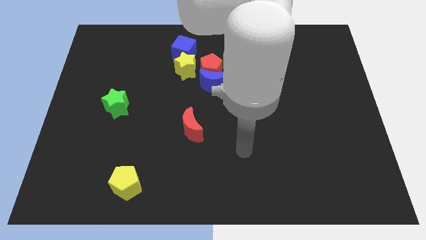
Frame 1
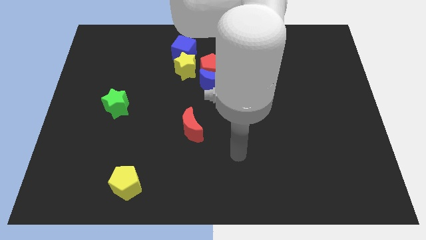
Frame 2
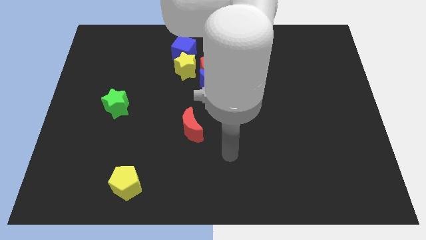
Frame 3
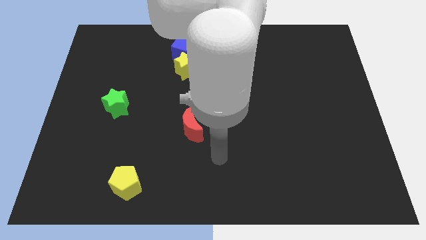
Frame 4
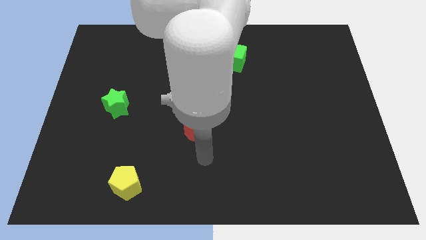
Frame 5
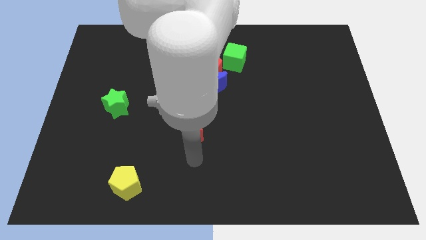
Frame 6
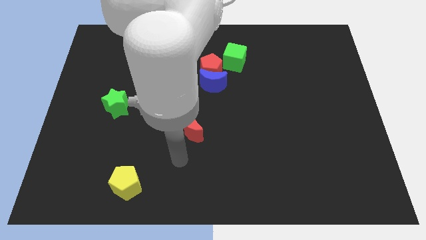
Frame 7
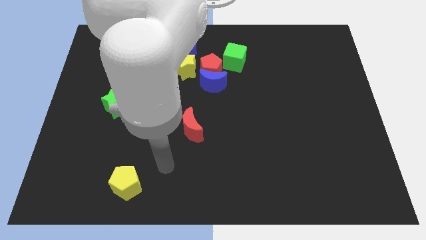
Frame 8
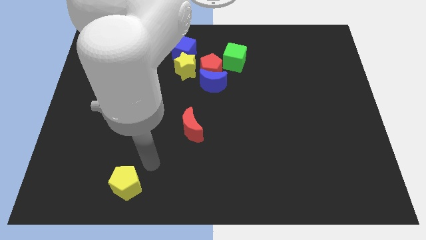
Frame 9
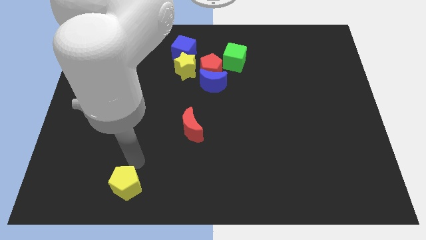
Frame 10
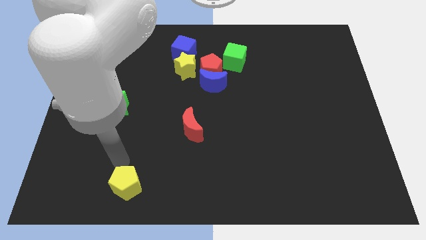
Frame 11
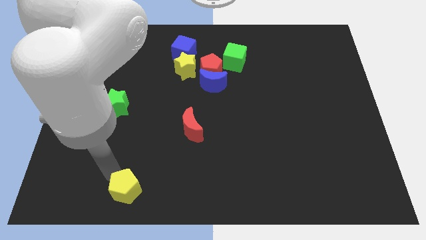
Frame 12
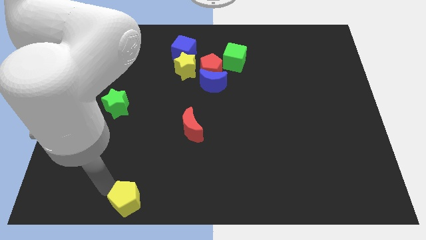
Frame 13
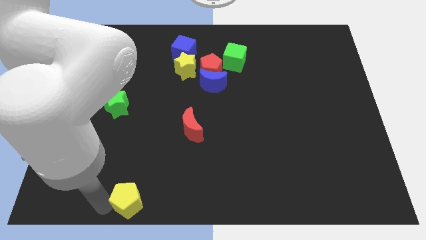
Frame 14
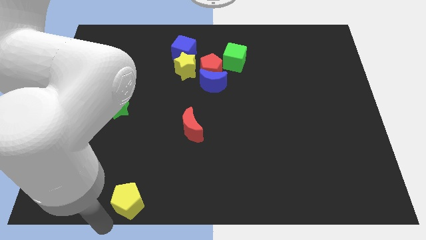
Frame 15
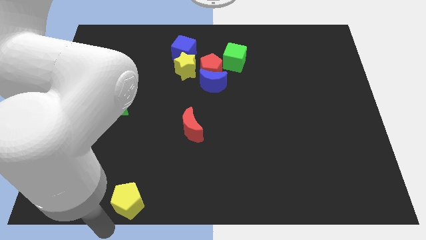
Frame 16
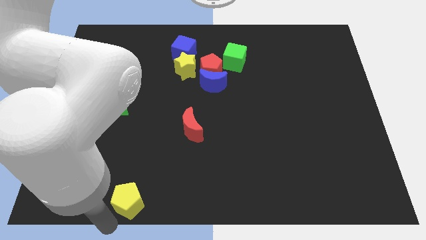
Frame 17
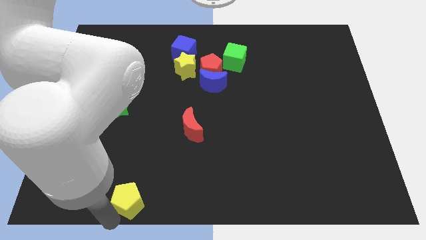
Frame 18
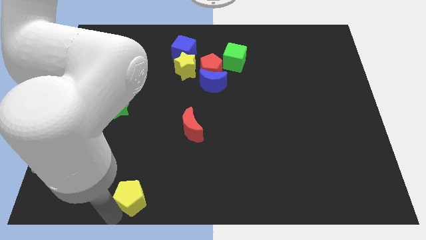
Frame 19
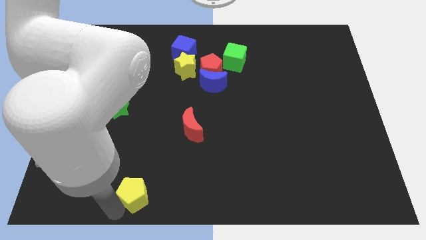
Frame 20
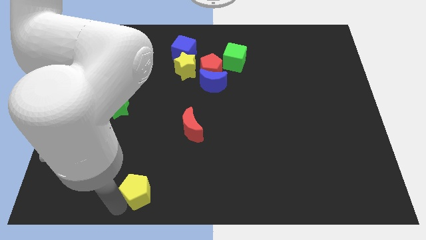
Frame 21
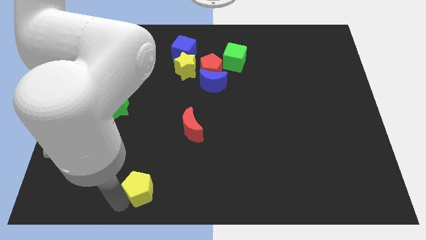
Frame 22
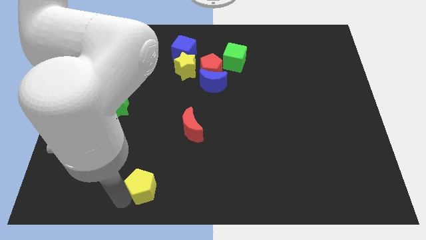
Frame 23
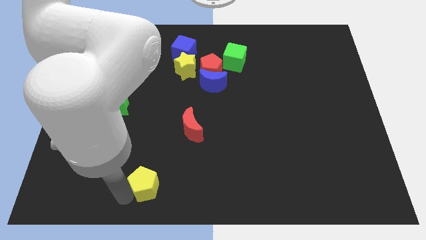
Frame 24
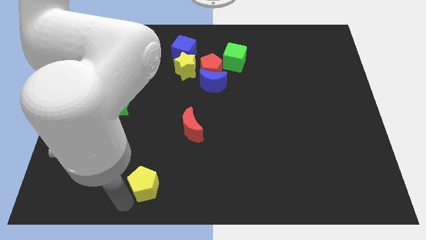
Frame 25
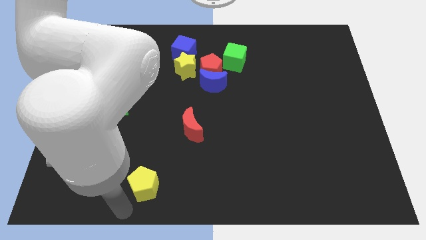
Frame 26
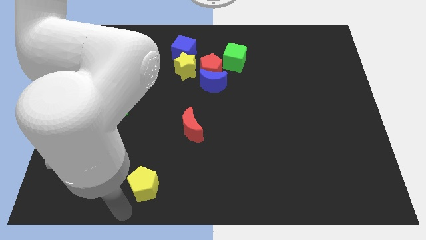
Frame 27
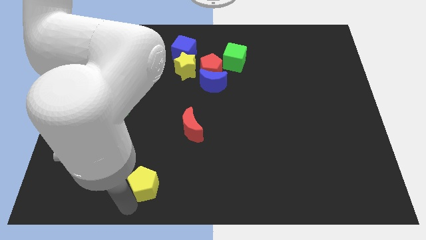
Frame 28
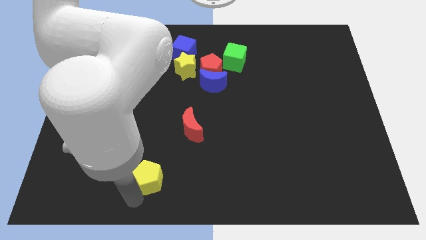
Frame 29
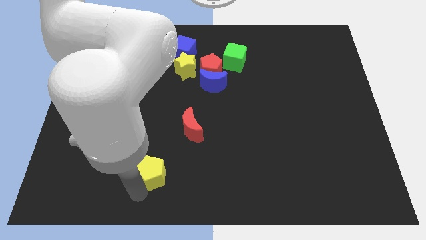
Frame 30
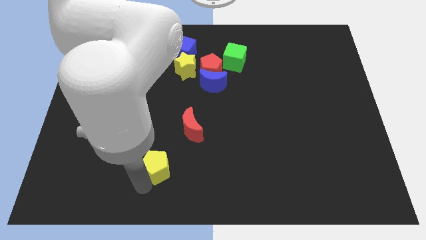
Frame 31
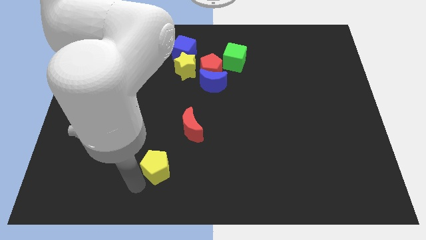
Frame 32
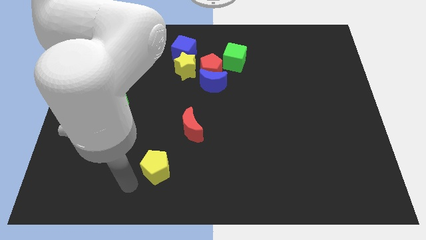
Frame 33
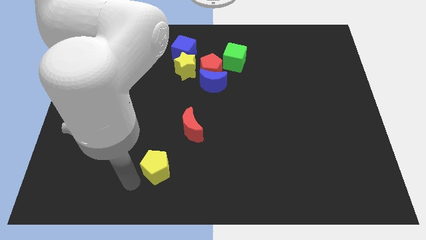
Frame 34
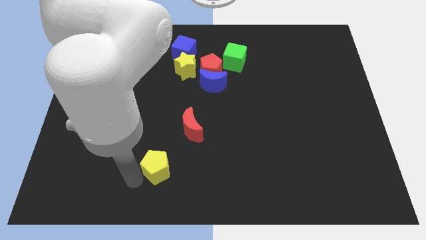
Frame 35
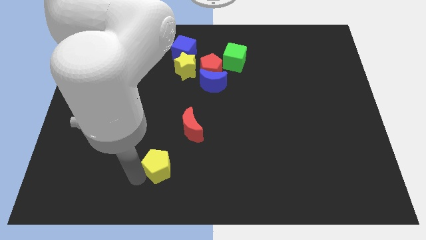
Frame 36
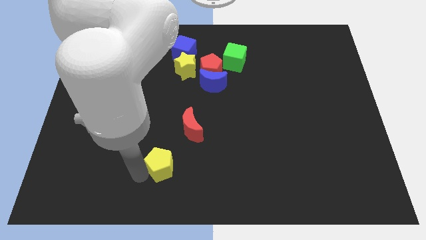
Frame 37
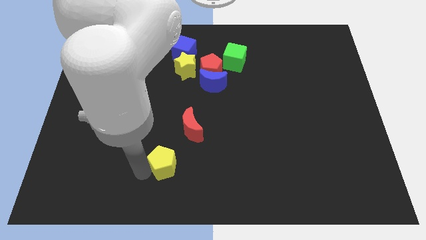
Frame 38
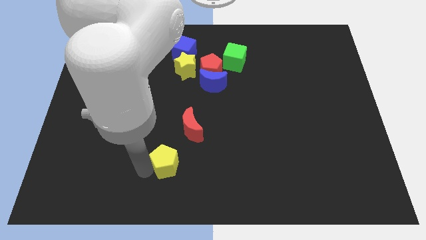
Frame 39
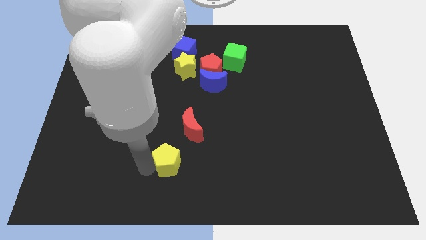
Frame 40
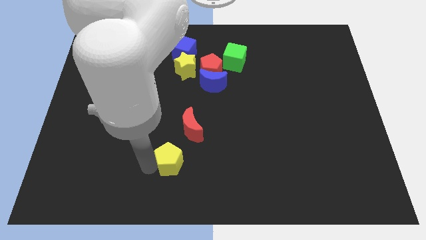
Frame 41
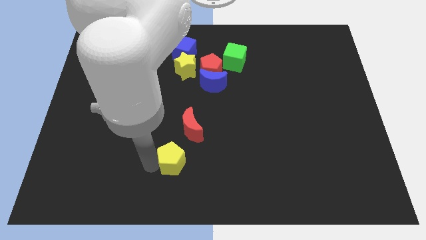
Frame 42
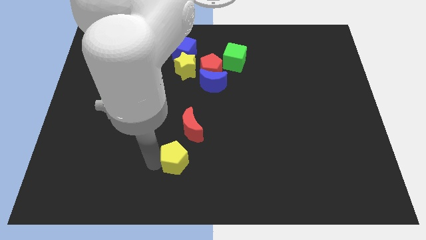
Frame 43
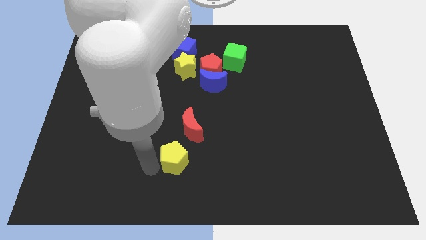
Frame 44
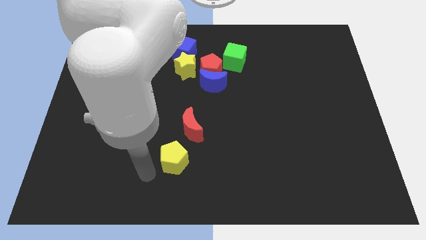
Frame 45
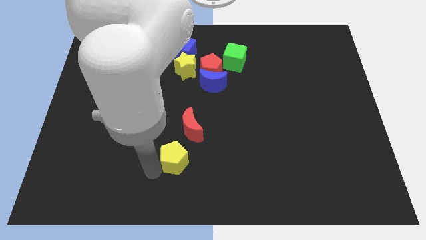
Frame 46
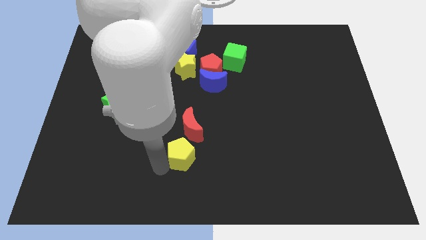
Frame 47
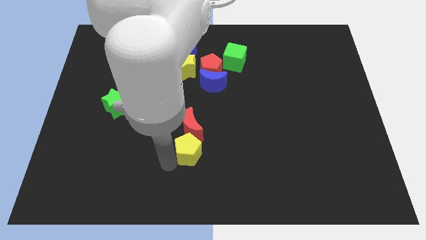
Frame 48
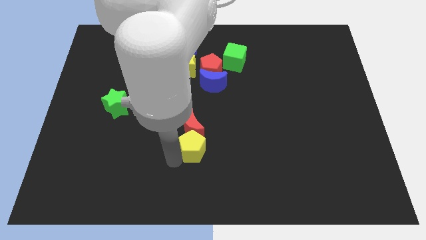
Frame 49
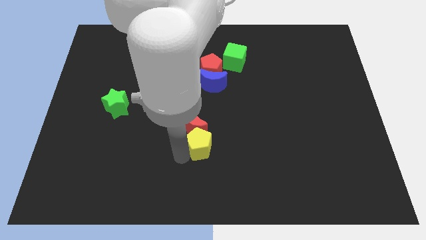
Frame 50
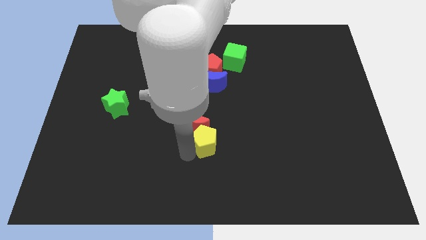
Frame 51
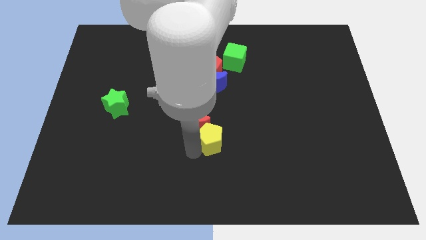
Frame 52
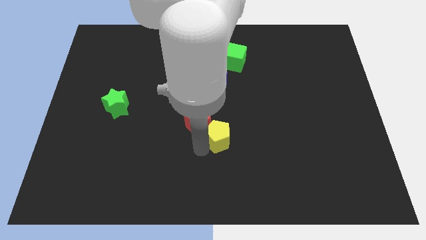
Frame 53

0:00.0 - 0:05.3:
slide the yellow pentagon up and then to the right

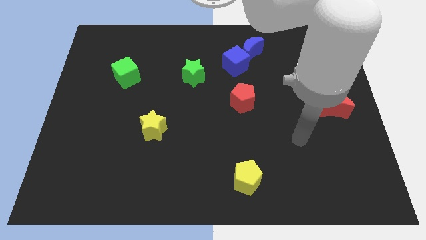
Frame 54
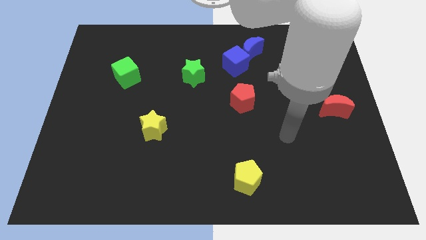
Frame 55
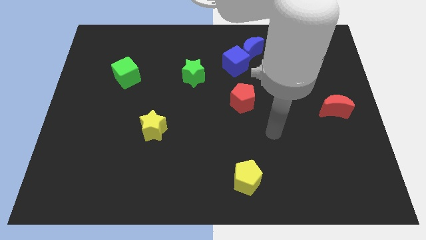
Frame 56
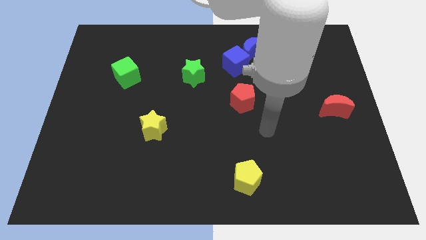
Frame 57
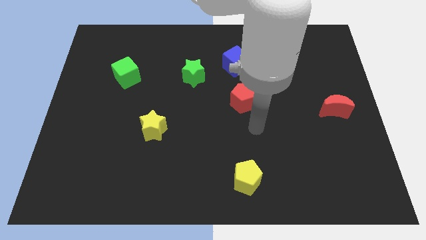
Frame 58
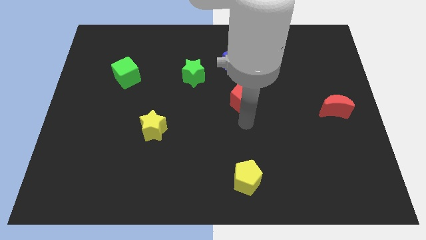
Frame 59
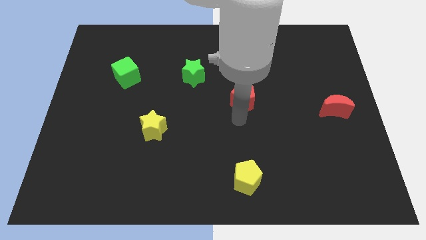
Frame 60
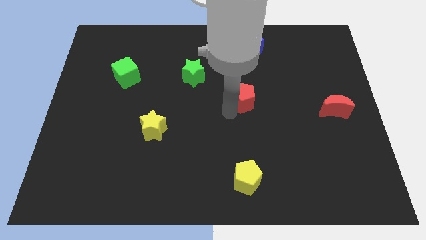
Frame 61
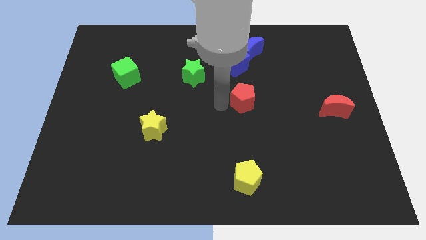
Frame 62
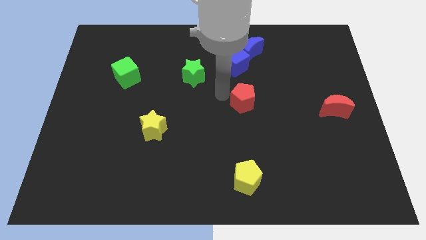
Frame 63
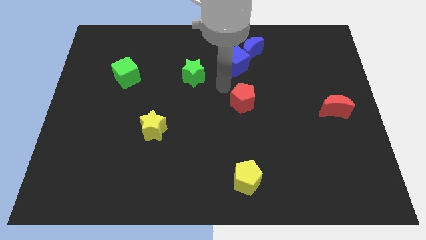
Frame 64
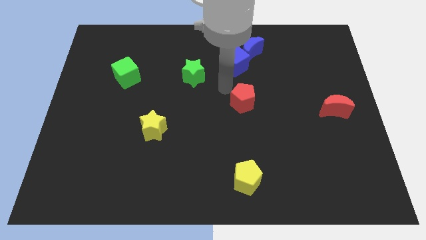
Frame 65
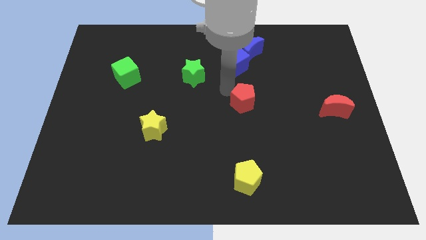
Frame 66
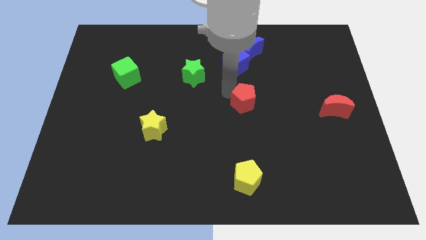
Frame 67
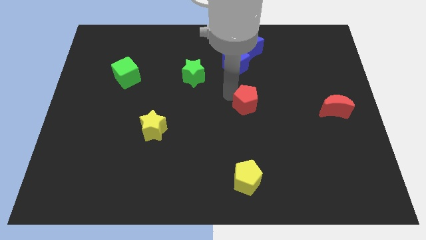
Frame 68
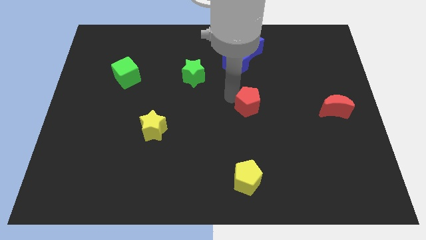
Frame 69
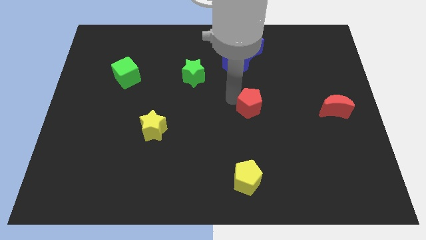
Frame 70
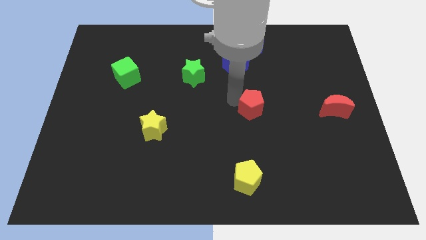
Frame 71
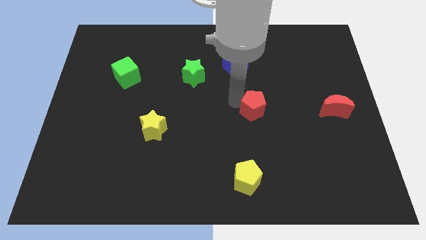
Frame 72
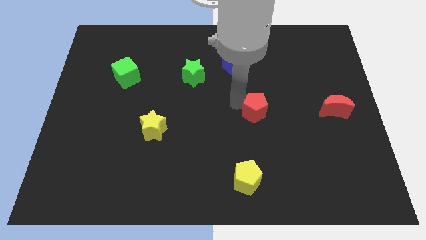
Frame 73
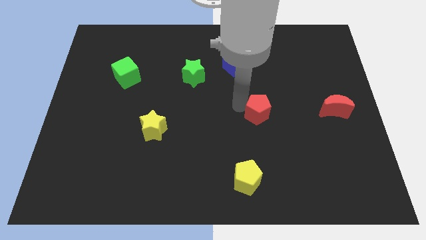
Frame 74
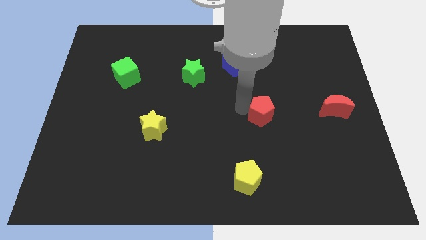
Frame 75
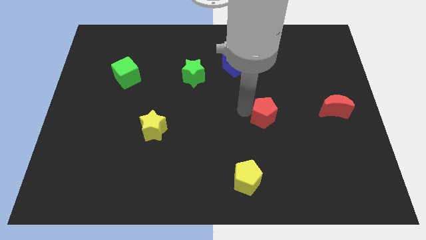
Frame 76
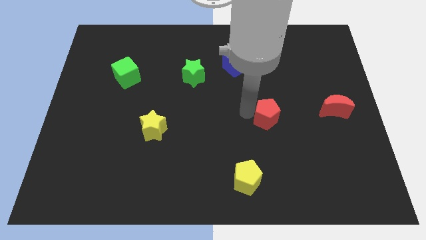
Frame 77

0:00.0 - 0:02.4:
push the red pentagon downwards and right diagonally a little bit
